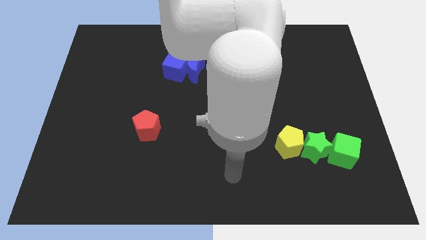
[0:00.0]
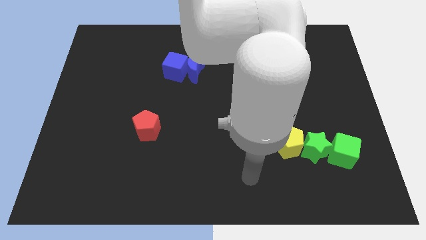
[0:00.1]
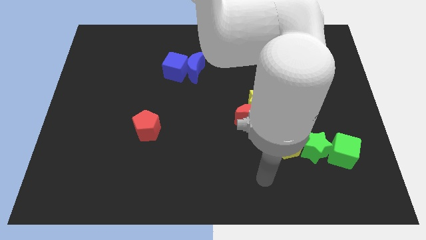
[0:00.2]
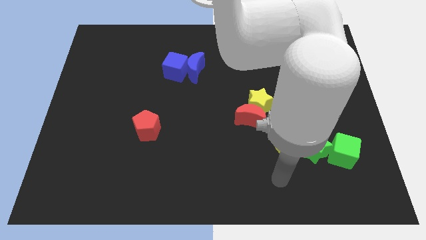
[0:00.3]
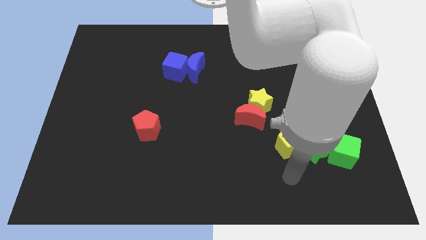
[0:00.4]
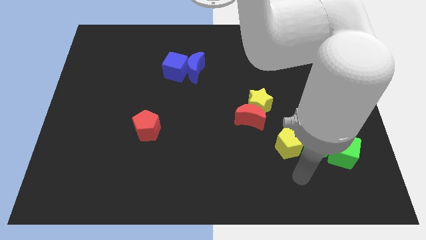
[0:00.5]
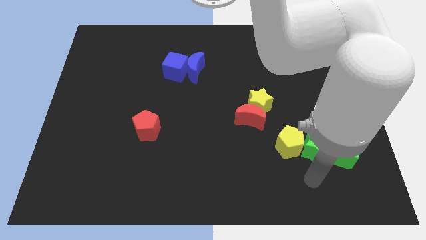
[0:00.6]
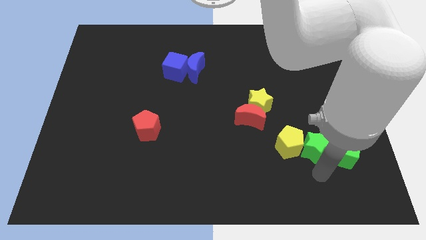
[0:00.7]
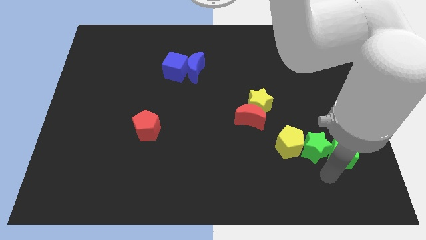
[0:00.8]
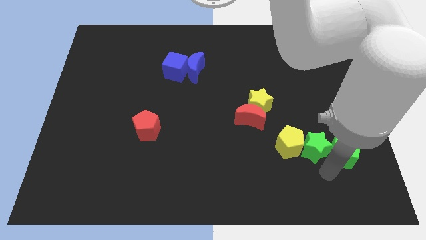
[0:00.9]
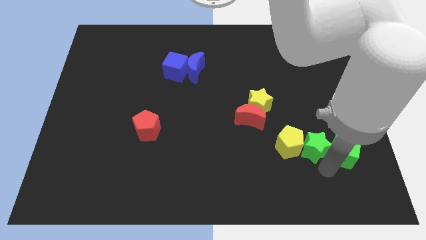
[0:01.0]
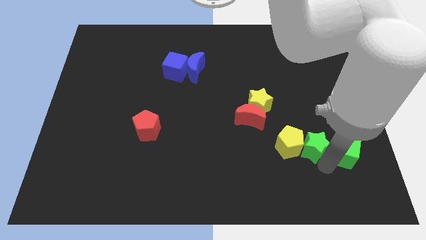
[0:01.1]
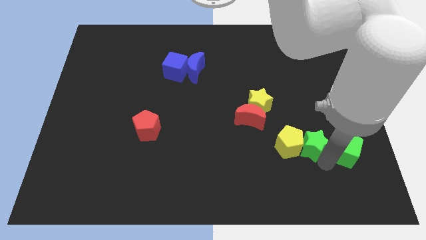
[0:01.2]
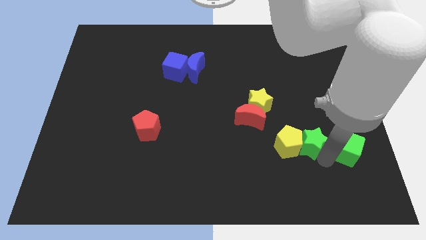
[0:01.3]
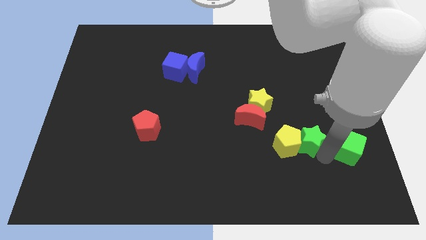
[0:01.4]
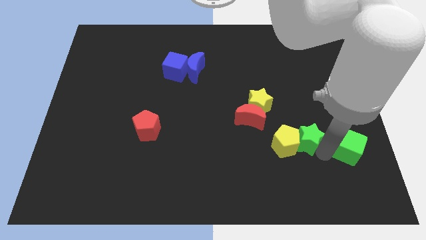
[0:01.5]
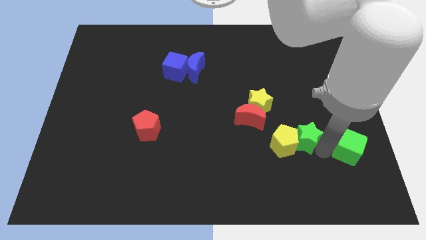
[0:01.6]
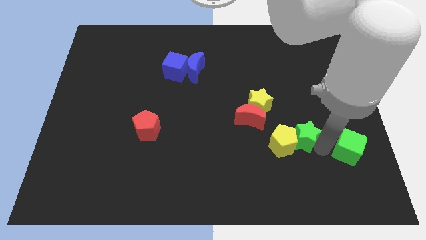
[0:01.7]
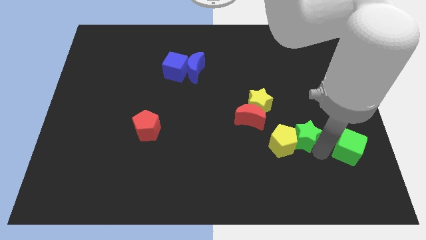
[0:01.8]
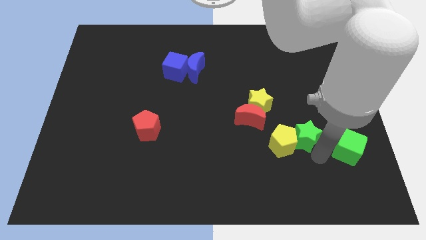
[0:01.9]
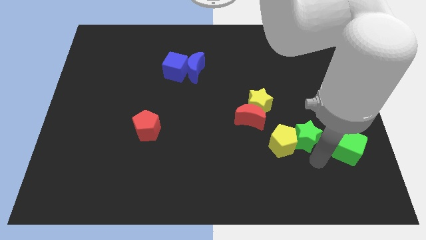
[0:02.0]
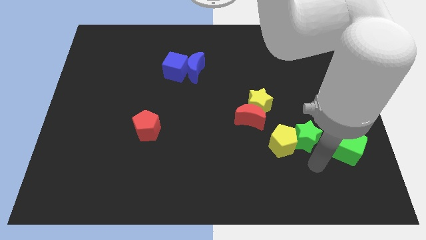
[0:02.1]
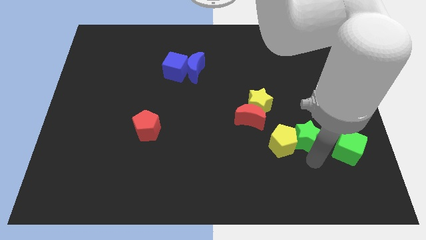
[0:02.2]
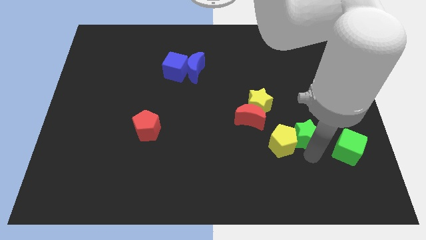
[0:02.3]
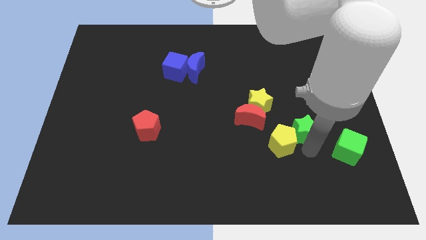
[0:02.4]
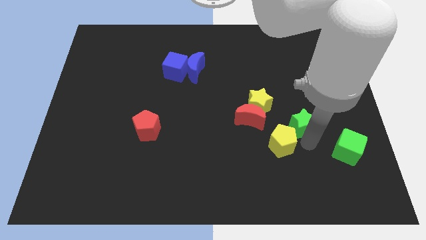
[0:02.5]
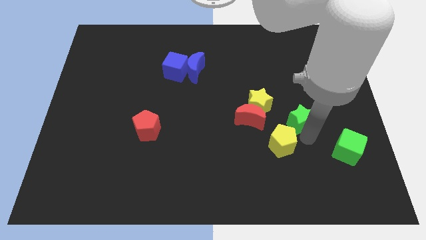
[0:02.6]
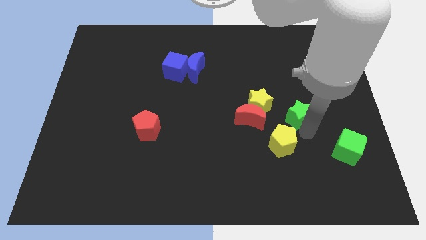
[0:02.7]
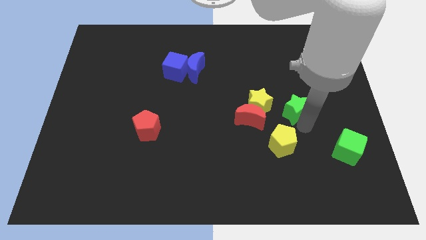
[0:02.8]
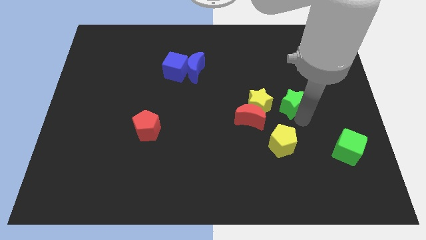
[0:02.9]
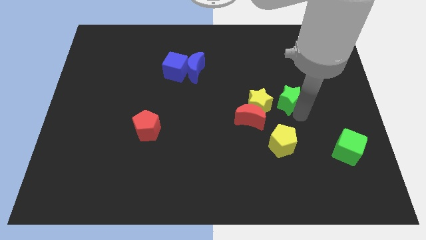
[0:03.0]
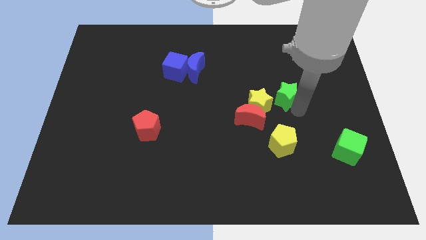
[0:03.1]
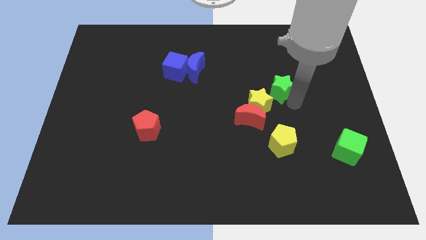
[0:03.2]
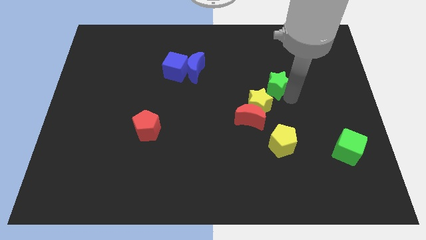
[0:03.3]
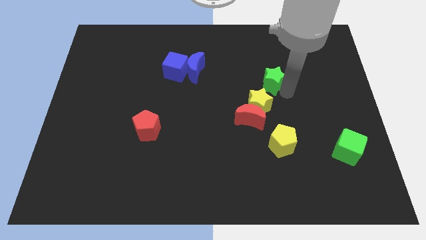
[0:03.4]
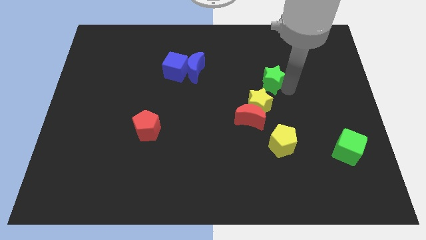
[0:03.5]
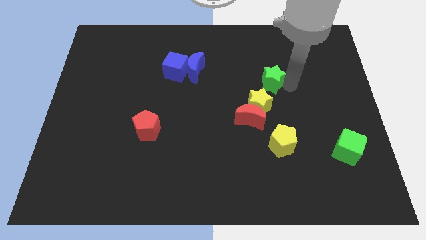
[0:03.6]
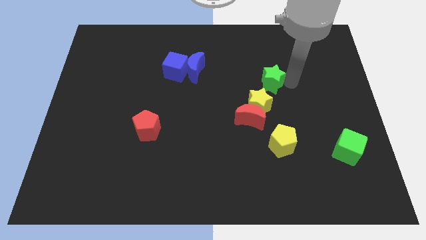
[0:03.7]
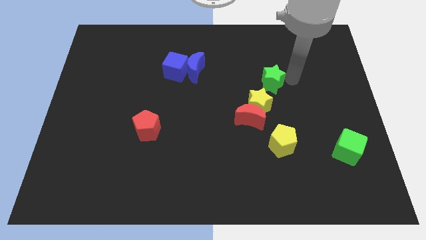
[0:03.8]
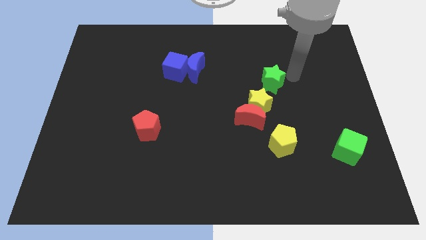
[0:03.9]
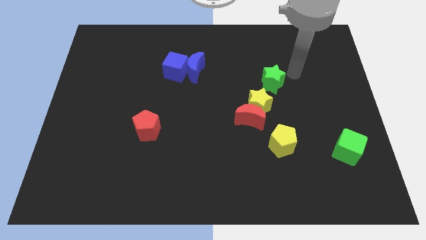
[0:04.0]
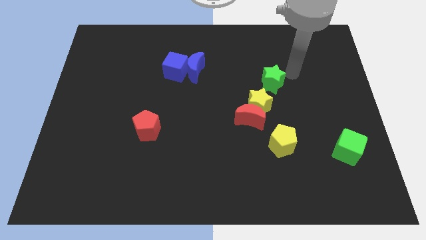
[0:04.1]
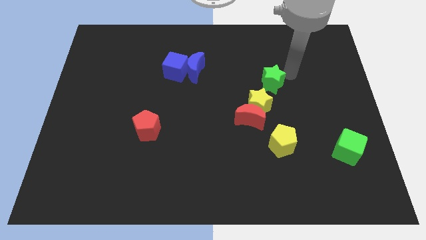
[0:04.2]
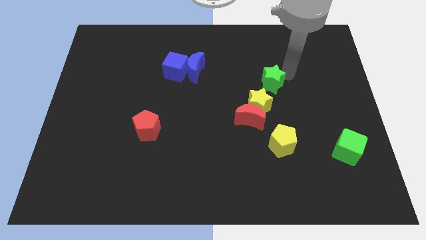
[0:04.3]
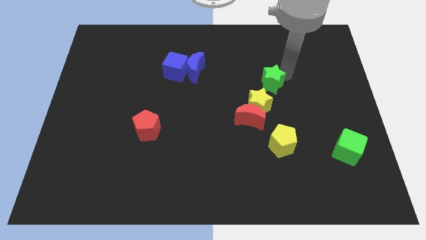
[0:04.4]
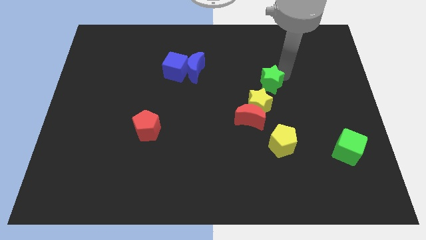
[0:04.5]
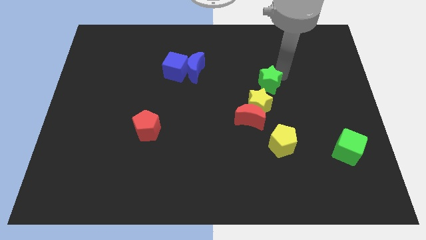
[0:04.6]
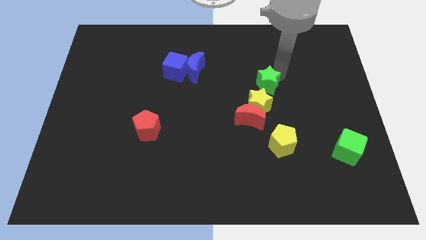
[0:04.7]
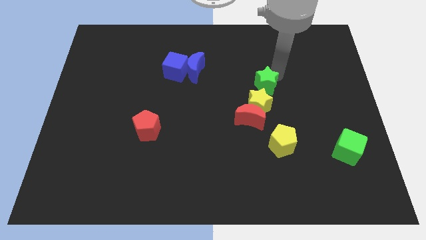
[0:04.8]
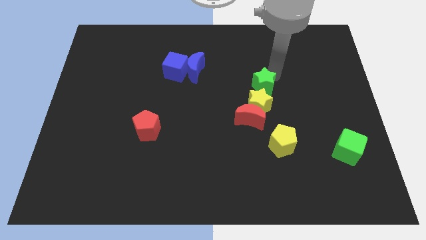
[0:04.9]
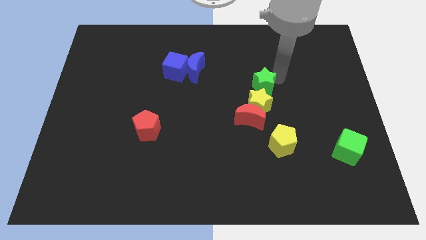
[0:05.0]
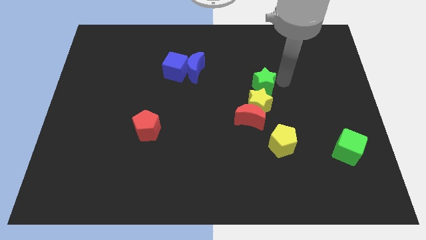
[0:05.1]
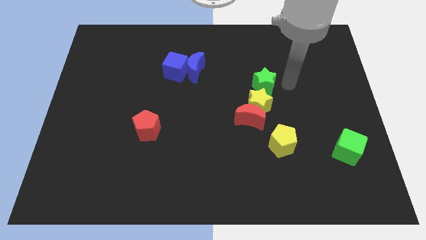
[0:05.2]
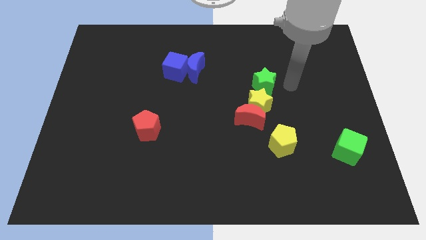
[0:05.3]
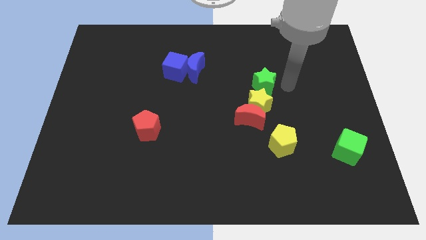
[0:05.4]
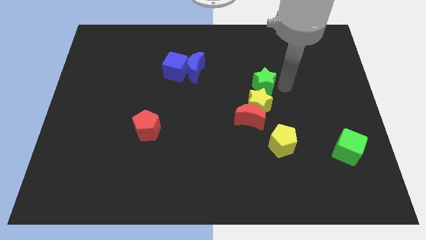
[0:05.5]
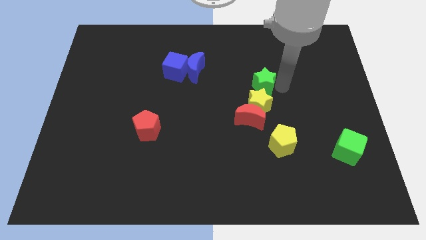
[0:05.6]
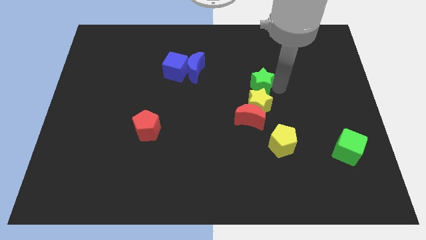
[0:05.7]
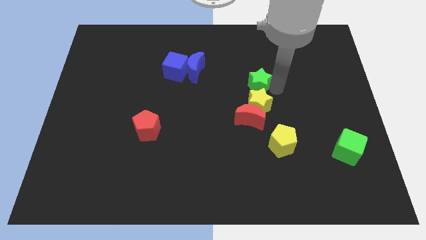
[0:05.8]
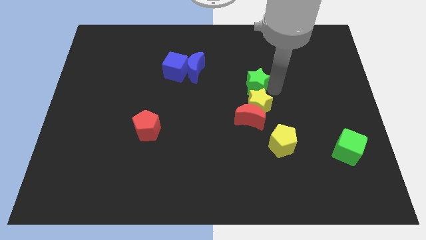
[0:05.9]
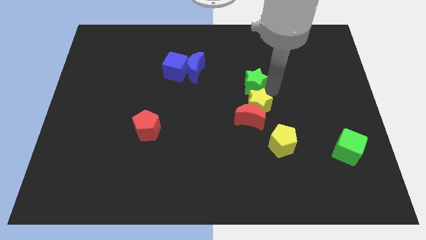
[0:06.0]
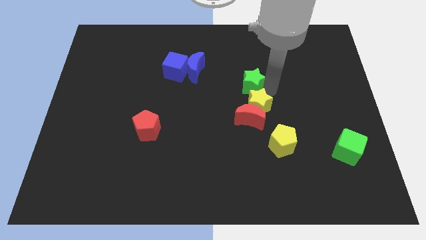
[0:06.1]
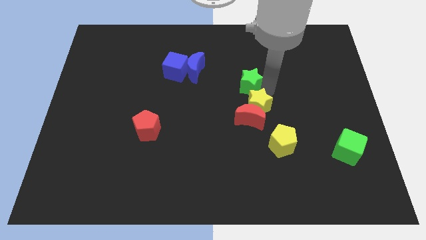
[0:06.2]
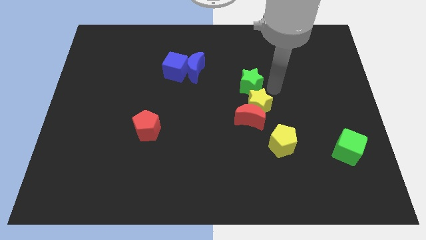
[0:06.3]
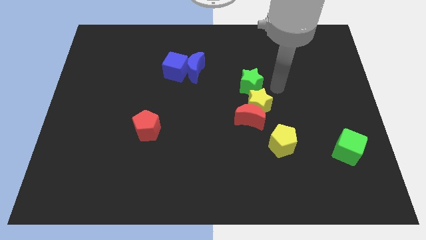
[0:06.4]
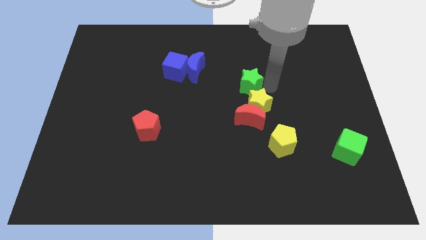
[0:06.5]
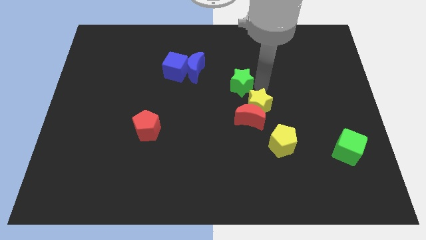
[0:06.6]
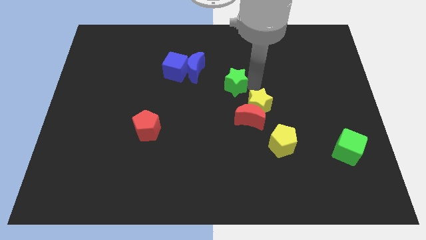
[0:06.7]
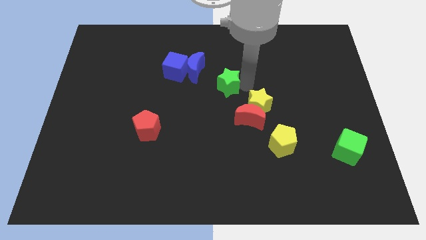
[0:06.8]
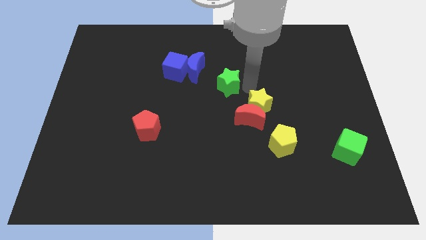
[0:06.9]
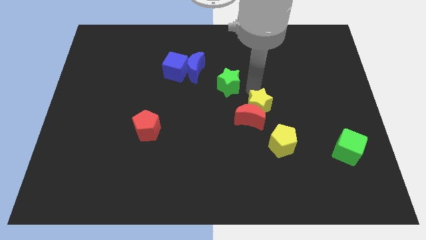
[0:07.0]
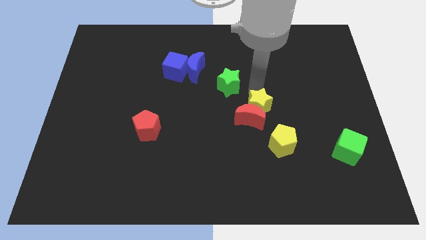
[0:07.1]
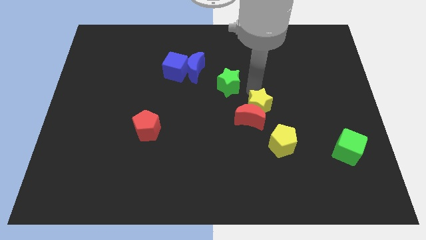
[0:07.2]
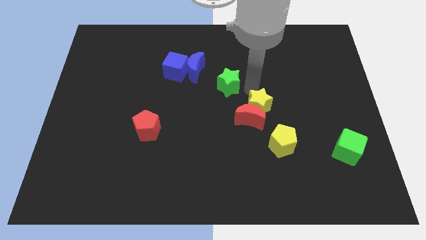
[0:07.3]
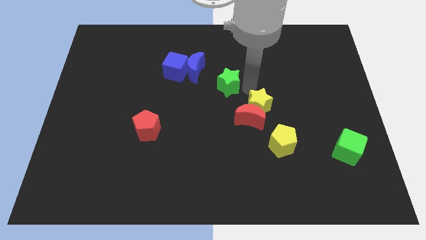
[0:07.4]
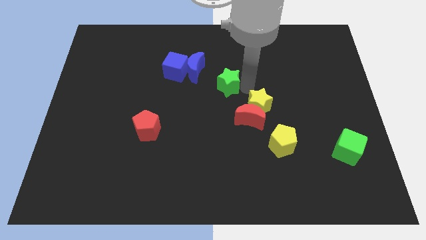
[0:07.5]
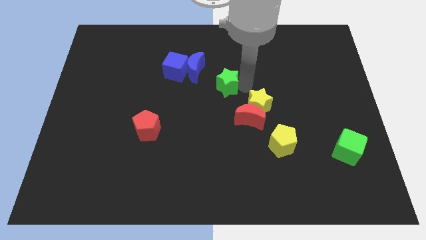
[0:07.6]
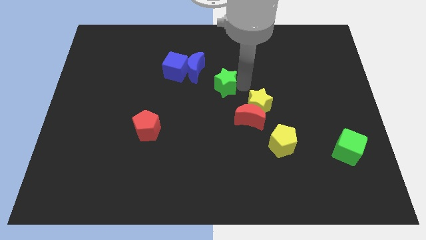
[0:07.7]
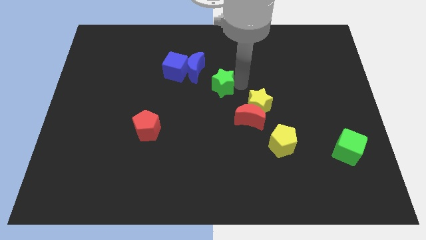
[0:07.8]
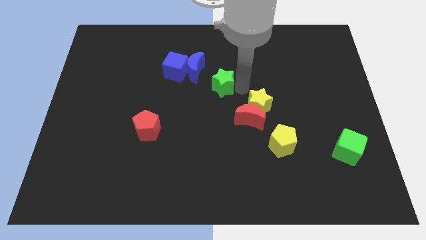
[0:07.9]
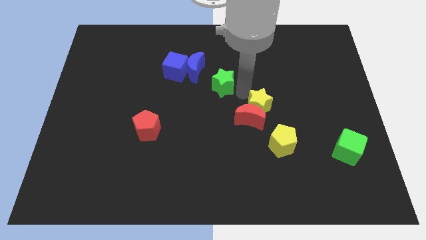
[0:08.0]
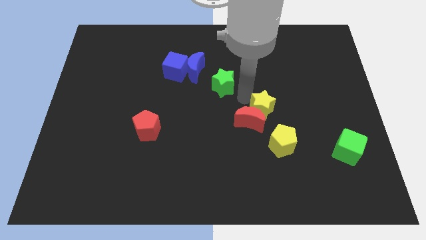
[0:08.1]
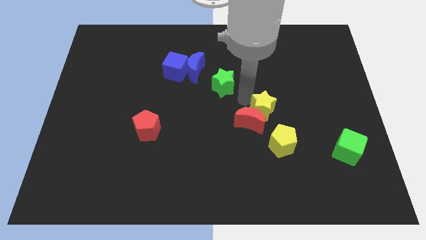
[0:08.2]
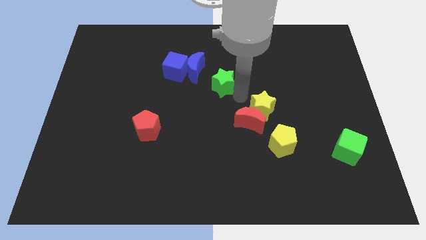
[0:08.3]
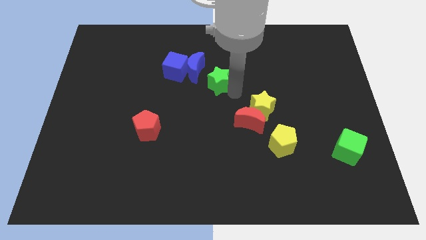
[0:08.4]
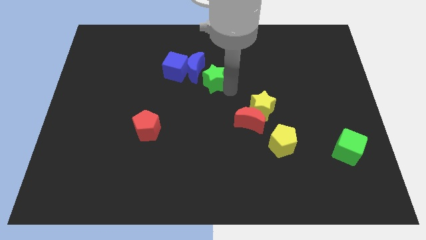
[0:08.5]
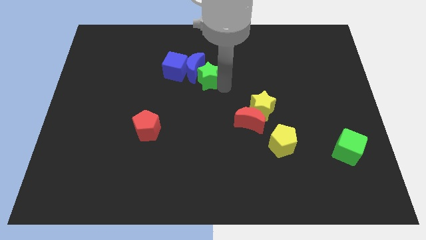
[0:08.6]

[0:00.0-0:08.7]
put the green star next to the blue moon
